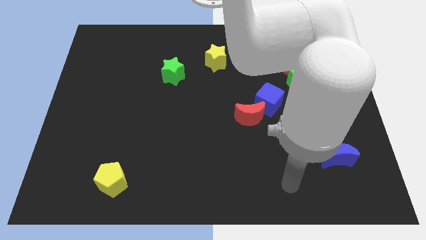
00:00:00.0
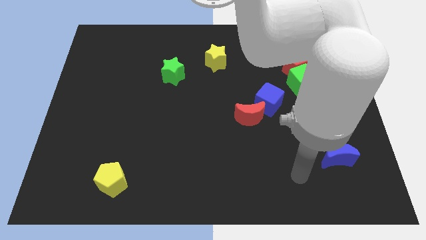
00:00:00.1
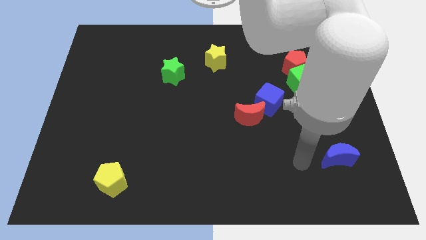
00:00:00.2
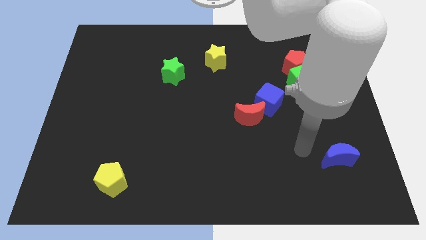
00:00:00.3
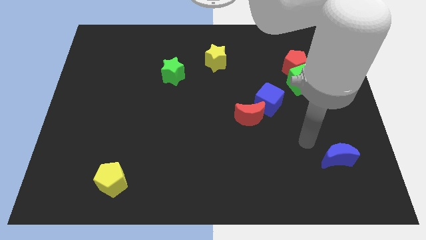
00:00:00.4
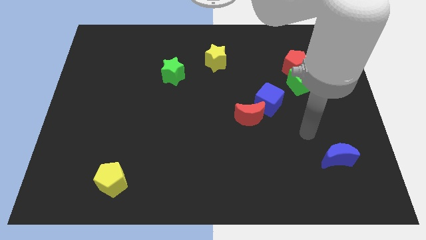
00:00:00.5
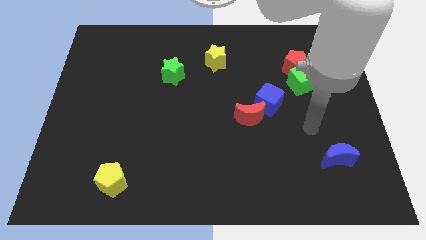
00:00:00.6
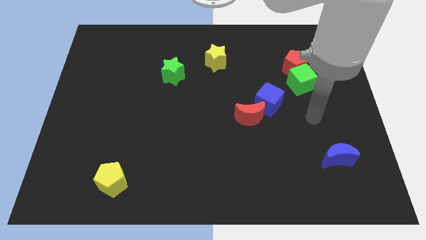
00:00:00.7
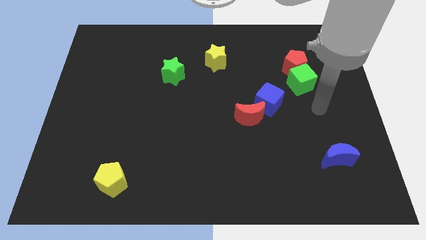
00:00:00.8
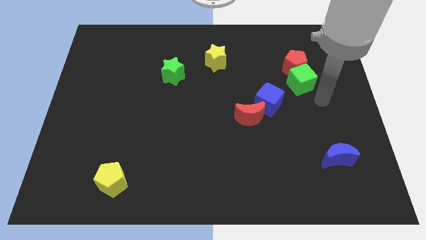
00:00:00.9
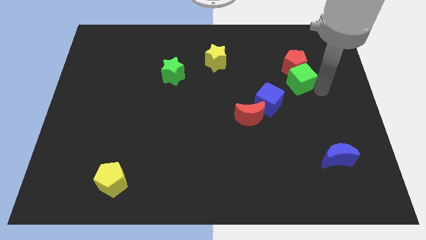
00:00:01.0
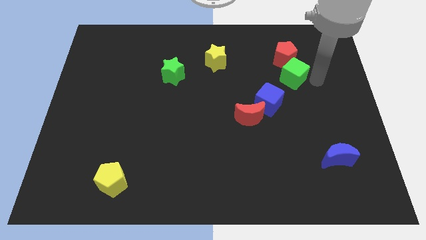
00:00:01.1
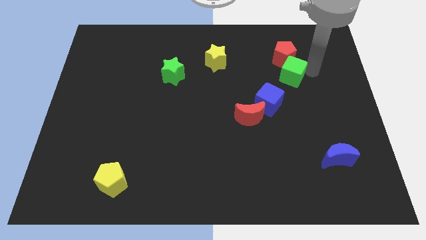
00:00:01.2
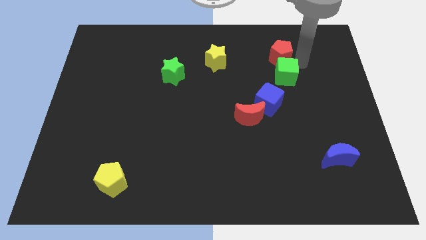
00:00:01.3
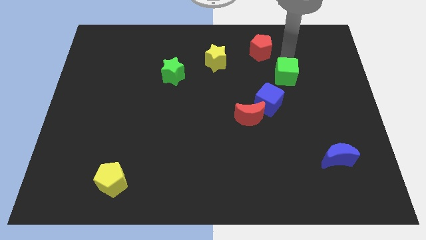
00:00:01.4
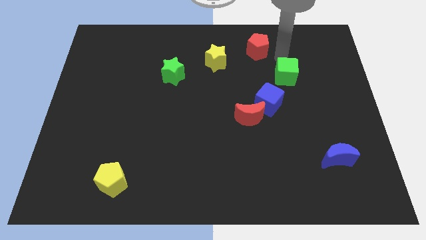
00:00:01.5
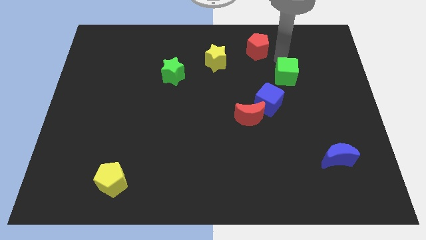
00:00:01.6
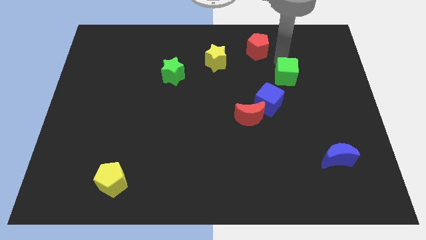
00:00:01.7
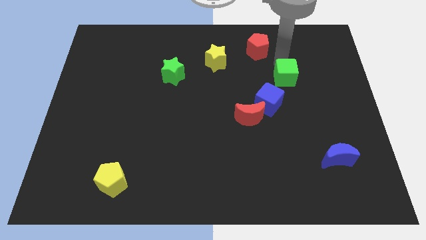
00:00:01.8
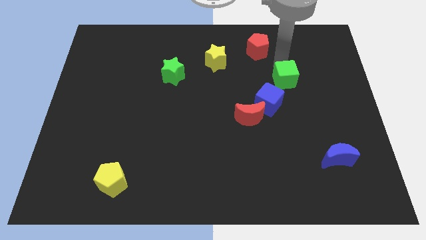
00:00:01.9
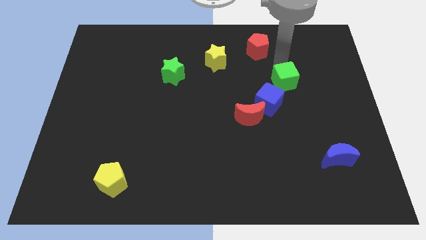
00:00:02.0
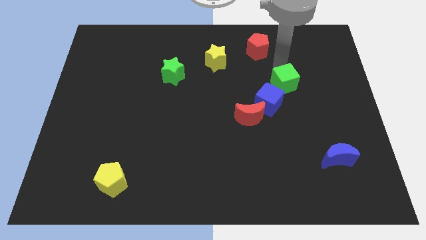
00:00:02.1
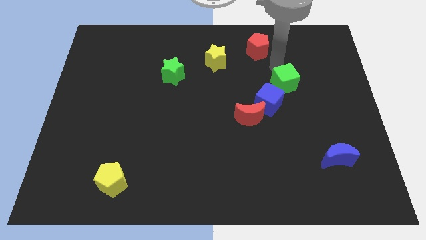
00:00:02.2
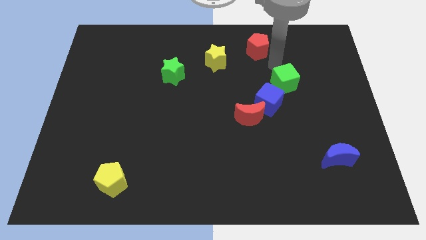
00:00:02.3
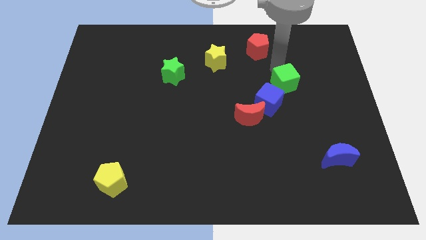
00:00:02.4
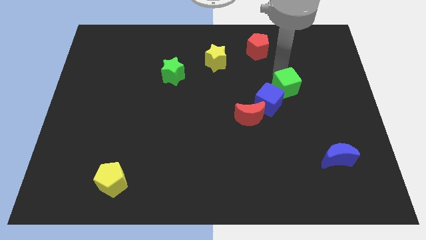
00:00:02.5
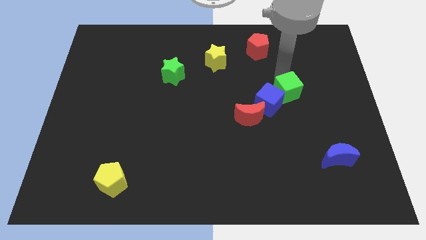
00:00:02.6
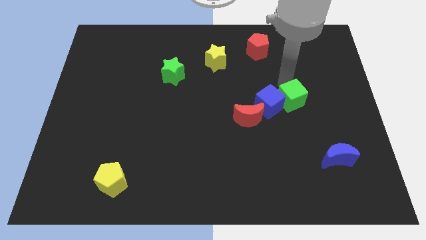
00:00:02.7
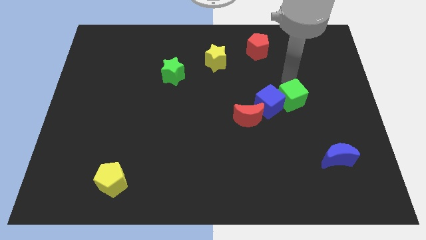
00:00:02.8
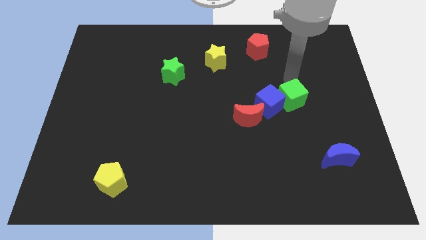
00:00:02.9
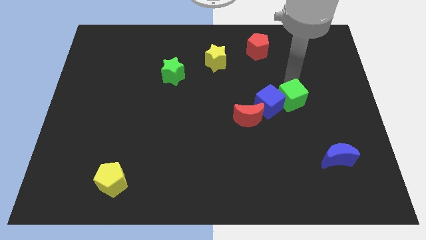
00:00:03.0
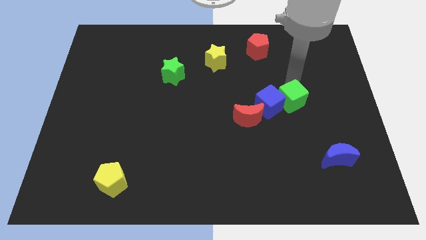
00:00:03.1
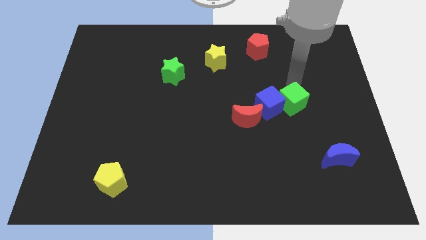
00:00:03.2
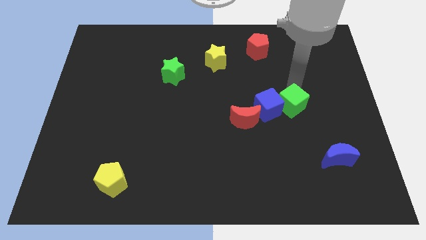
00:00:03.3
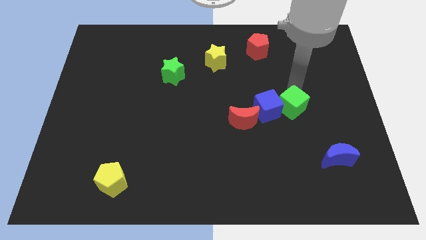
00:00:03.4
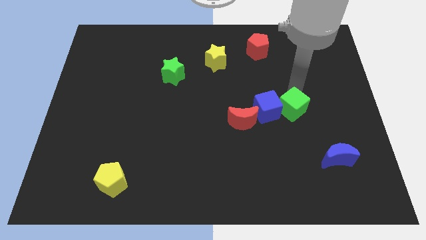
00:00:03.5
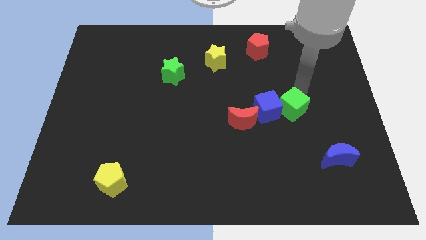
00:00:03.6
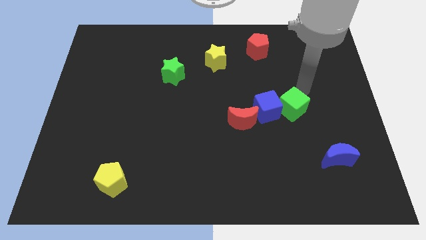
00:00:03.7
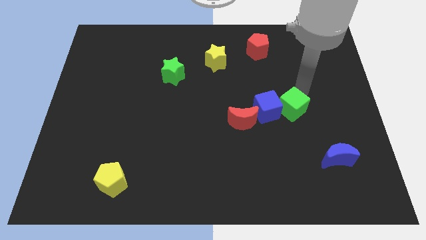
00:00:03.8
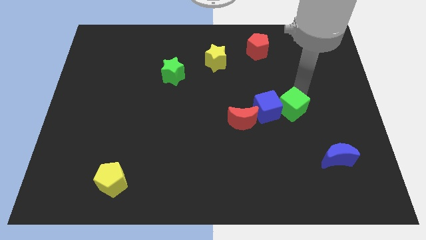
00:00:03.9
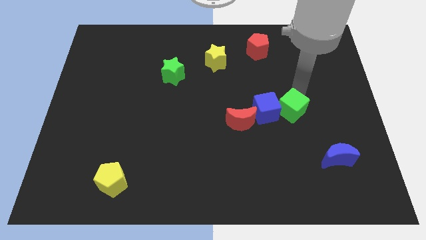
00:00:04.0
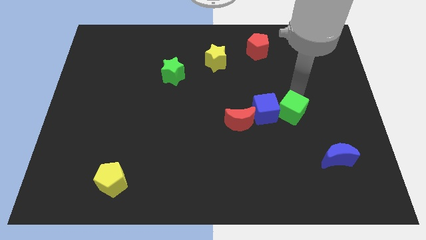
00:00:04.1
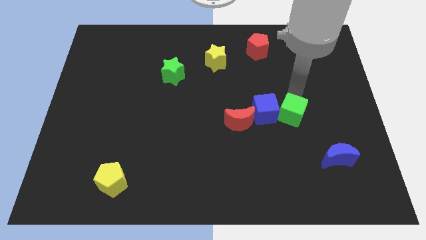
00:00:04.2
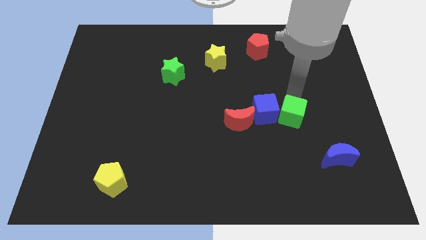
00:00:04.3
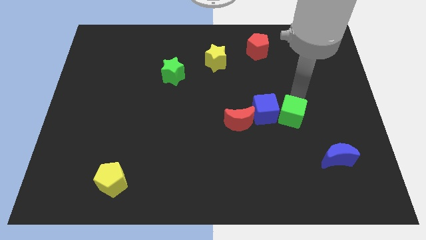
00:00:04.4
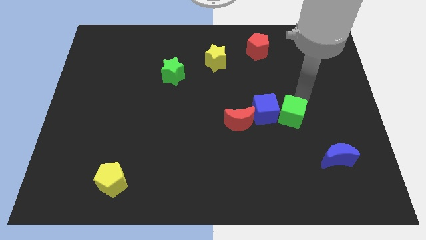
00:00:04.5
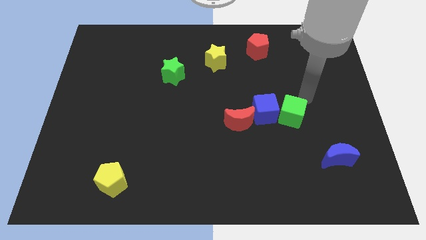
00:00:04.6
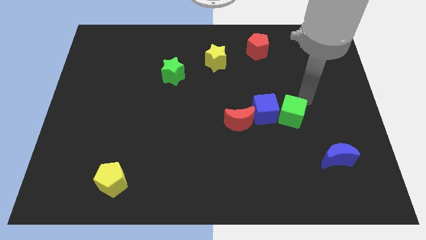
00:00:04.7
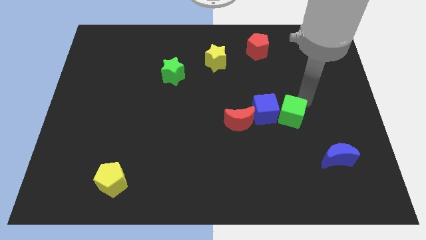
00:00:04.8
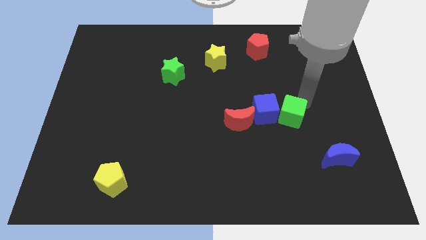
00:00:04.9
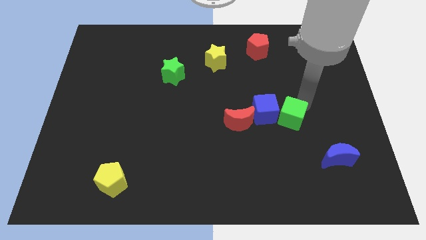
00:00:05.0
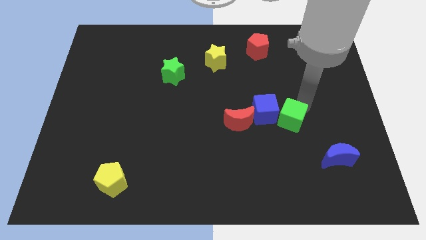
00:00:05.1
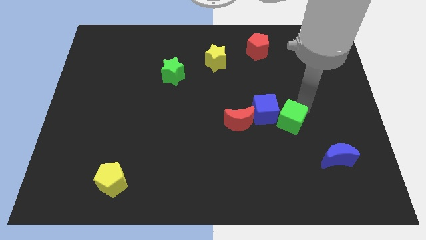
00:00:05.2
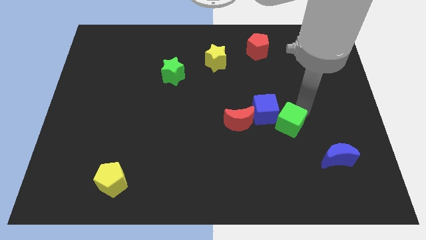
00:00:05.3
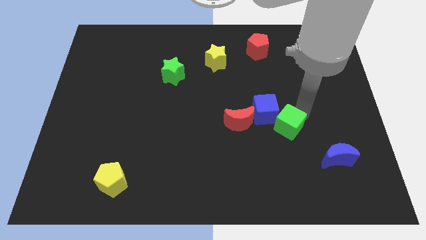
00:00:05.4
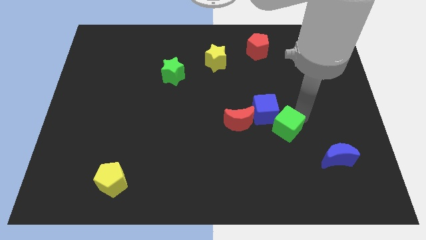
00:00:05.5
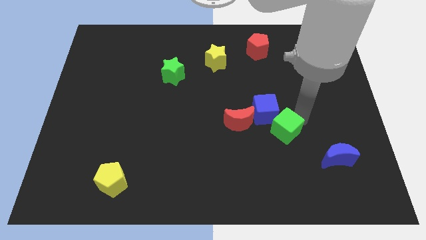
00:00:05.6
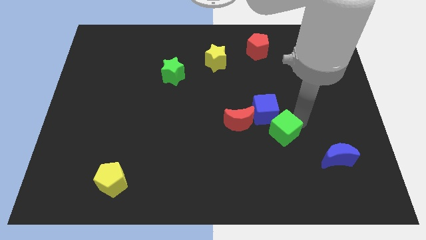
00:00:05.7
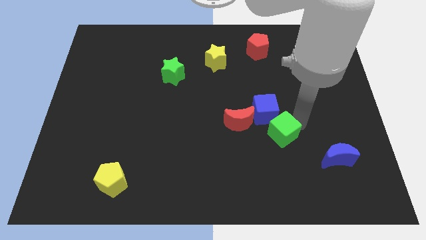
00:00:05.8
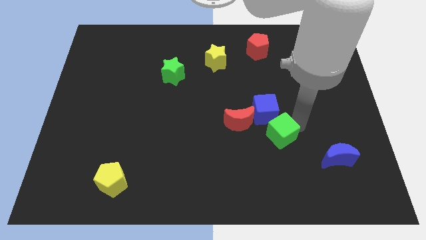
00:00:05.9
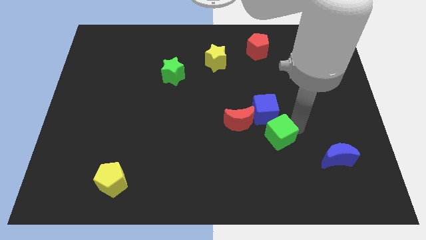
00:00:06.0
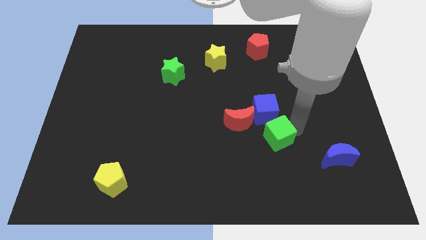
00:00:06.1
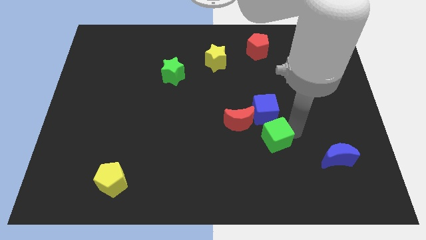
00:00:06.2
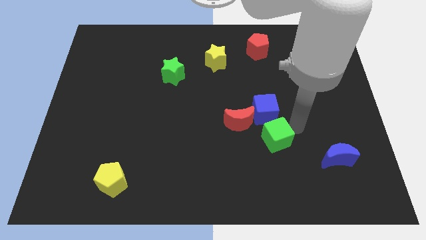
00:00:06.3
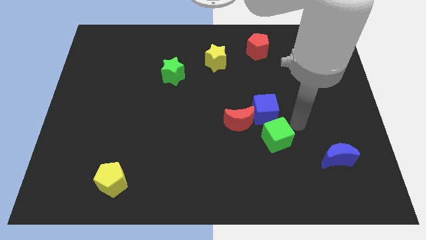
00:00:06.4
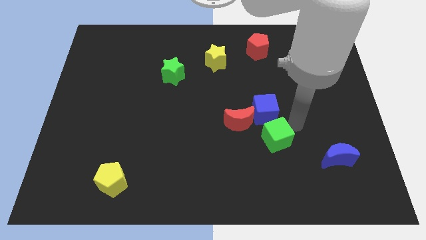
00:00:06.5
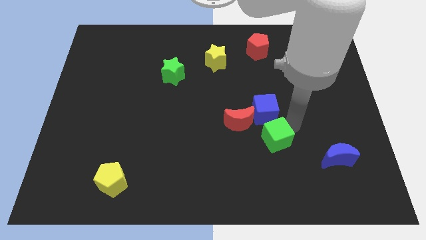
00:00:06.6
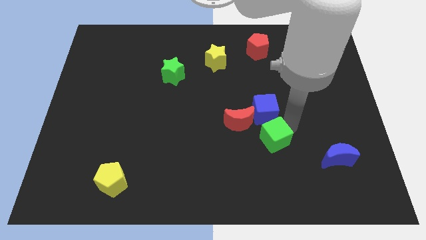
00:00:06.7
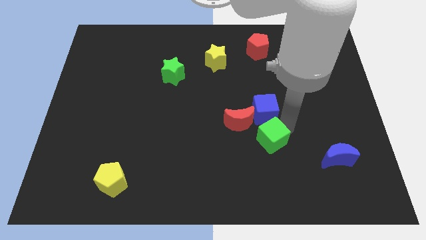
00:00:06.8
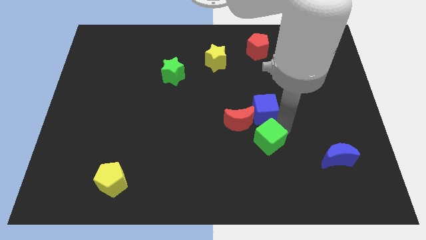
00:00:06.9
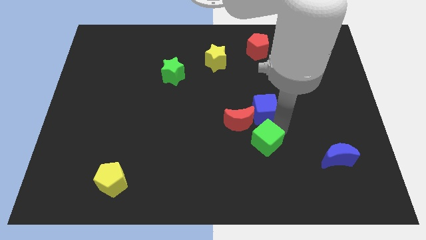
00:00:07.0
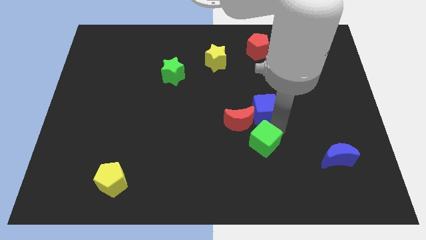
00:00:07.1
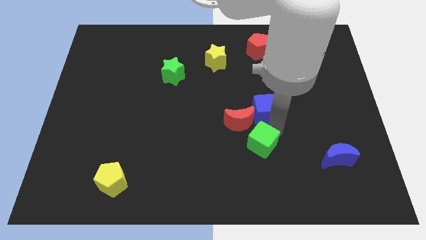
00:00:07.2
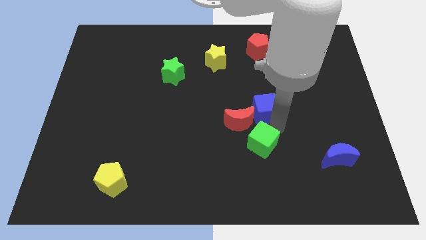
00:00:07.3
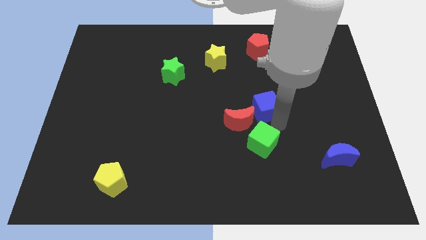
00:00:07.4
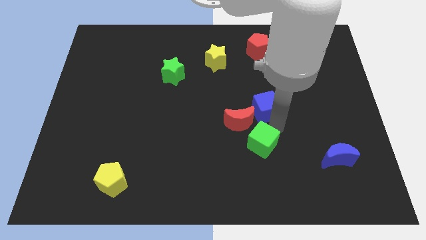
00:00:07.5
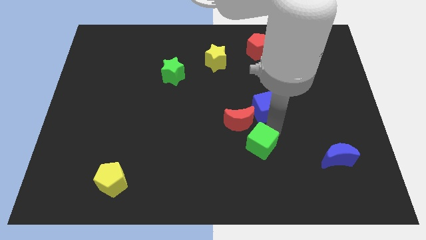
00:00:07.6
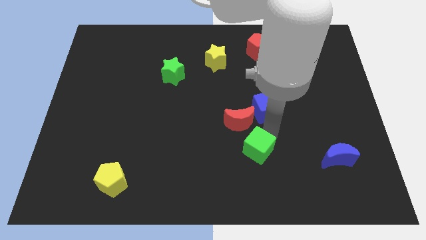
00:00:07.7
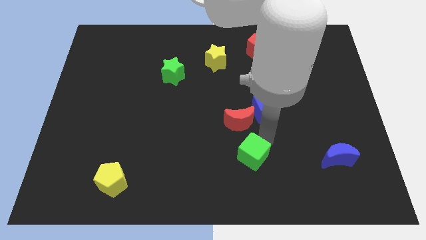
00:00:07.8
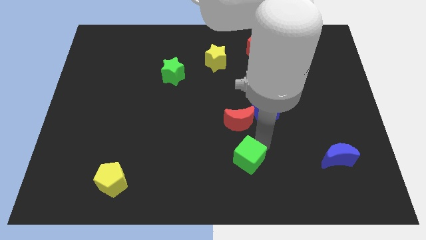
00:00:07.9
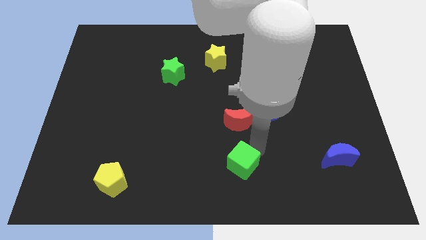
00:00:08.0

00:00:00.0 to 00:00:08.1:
slide the green cube to the bottom side
